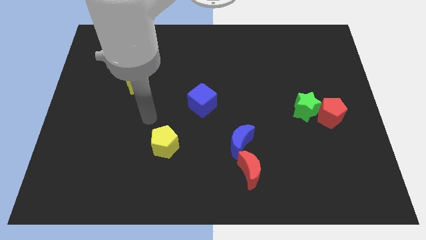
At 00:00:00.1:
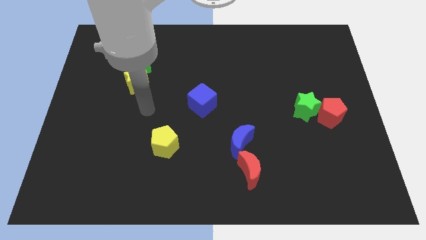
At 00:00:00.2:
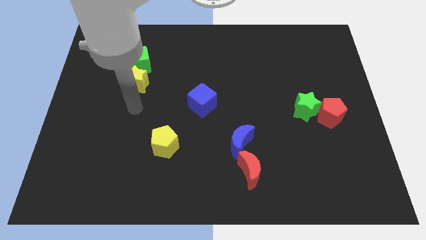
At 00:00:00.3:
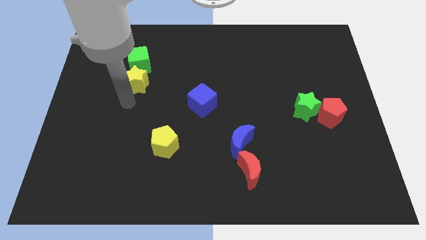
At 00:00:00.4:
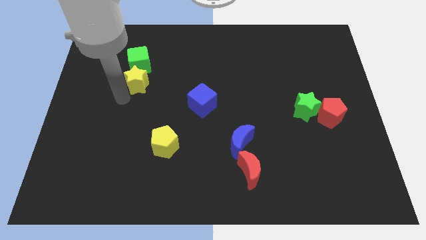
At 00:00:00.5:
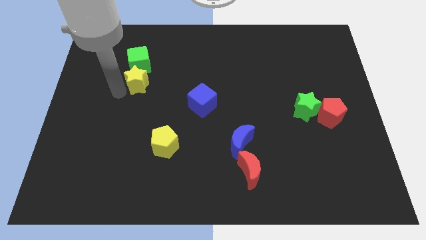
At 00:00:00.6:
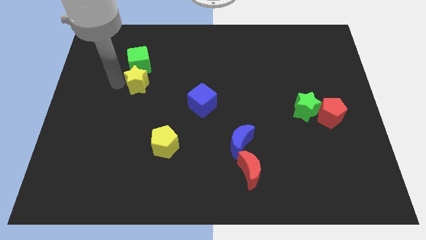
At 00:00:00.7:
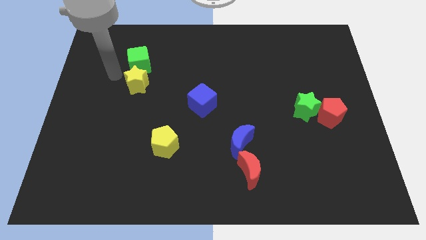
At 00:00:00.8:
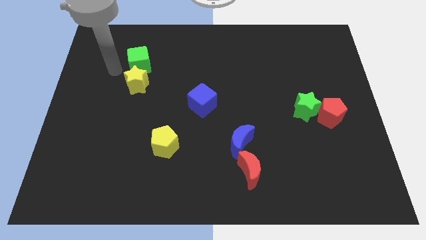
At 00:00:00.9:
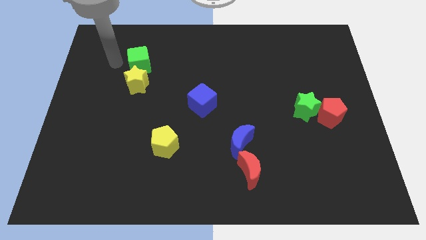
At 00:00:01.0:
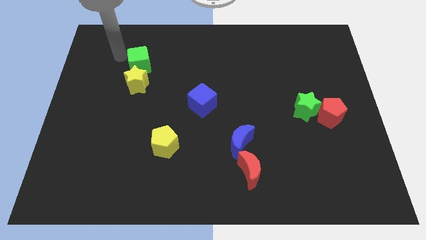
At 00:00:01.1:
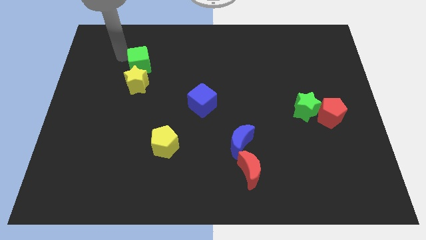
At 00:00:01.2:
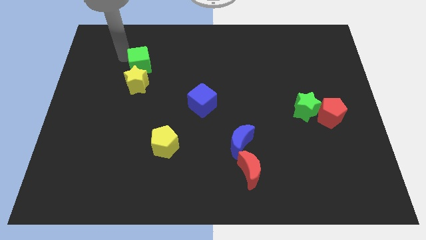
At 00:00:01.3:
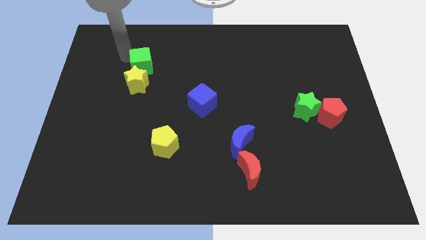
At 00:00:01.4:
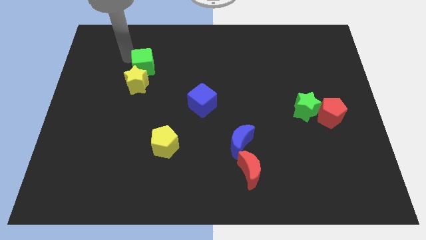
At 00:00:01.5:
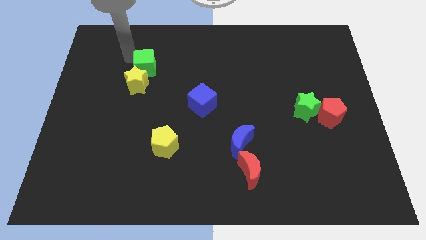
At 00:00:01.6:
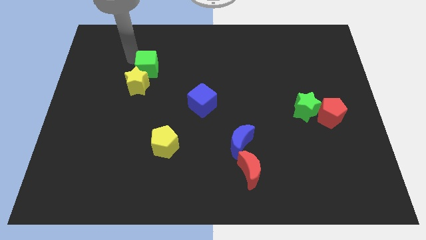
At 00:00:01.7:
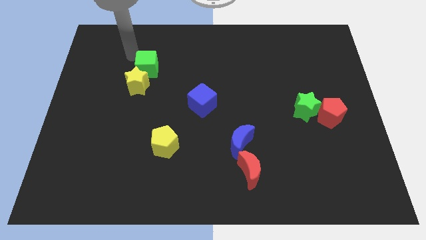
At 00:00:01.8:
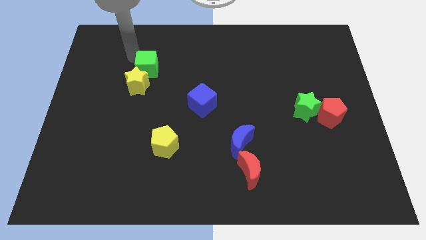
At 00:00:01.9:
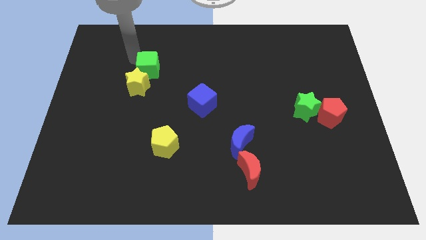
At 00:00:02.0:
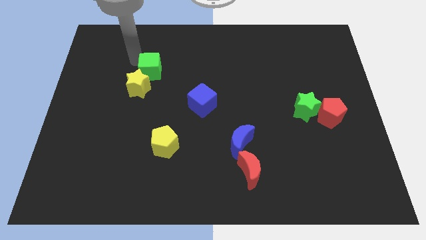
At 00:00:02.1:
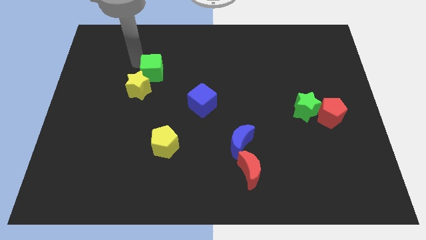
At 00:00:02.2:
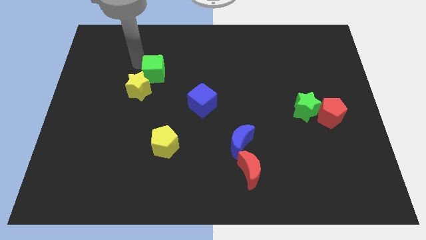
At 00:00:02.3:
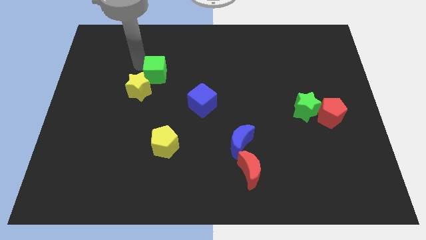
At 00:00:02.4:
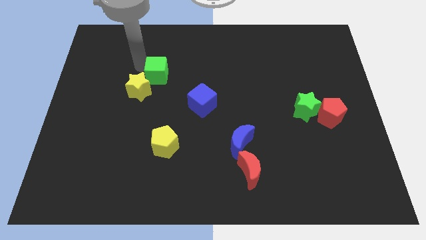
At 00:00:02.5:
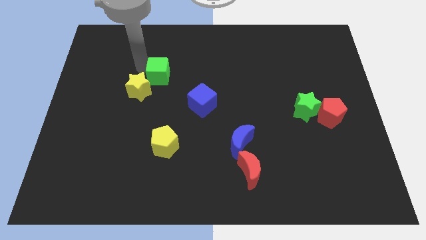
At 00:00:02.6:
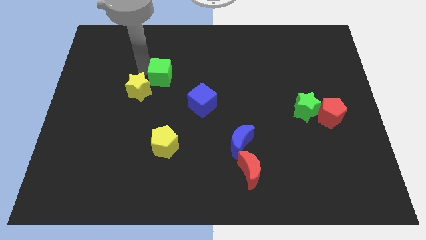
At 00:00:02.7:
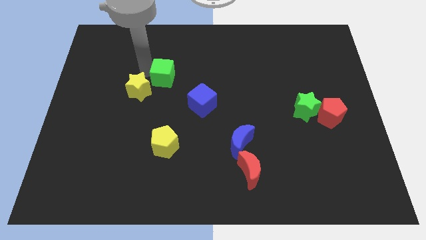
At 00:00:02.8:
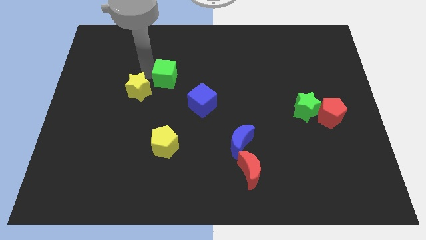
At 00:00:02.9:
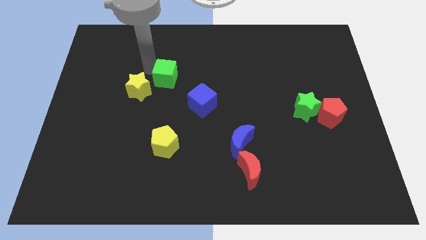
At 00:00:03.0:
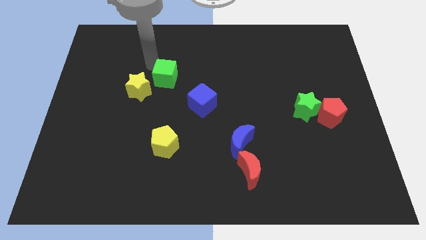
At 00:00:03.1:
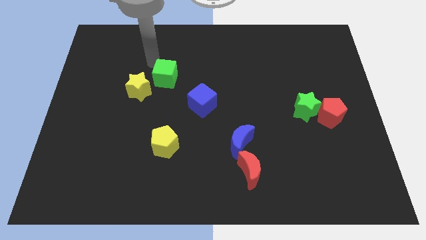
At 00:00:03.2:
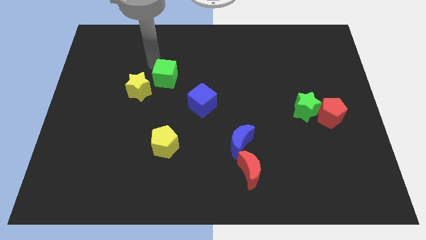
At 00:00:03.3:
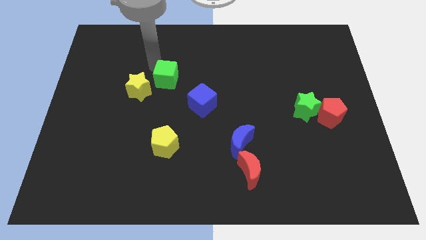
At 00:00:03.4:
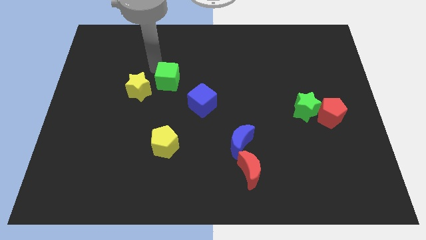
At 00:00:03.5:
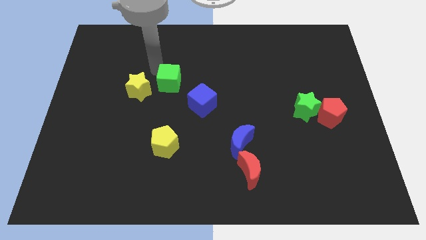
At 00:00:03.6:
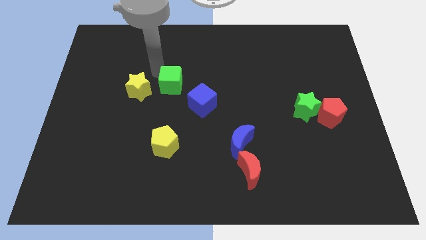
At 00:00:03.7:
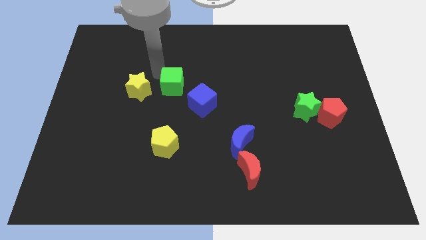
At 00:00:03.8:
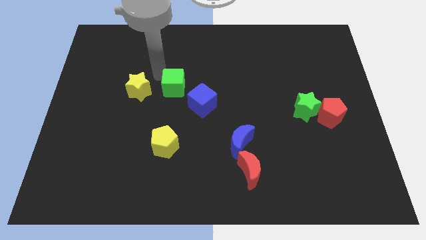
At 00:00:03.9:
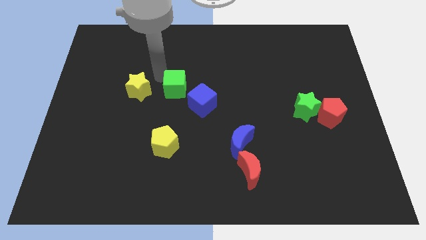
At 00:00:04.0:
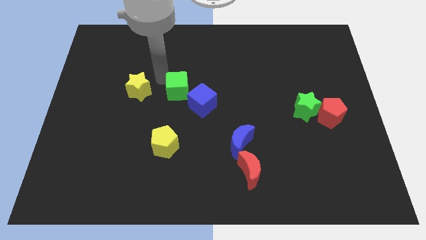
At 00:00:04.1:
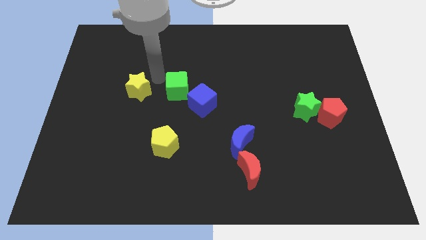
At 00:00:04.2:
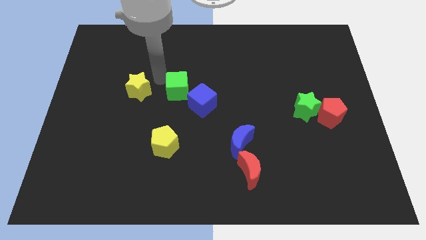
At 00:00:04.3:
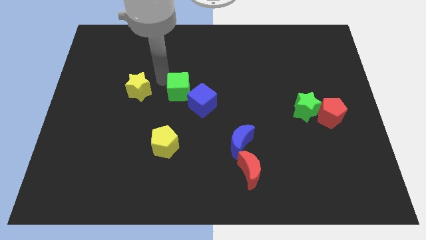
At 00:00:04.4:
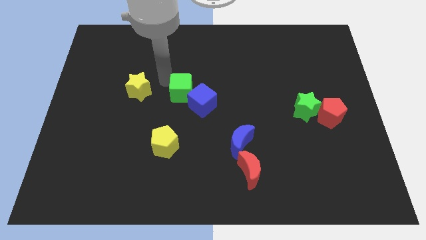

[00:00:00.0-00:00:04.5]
put the green cube close to the blue cube

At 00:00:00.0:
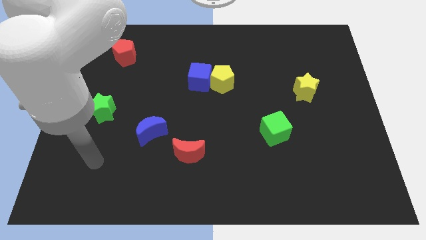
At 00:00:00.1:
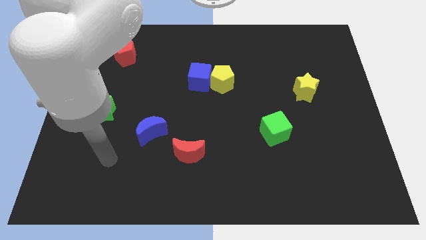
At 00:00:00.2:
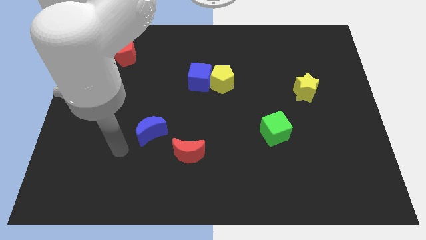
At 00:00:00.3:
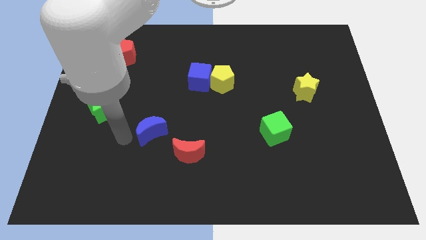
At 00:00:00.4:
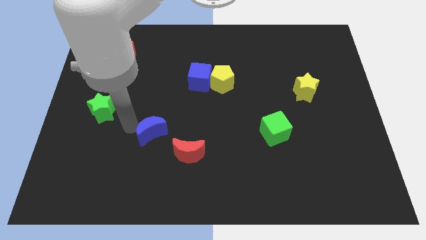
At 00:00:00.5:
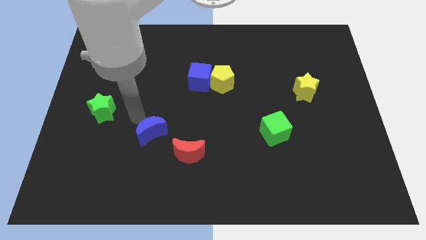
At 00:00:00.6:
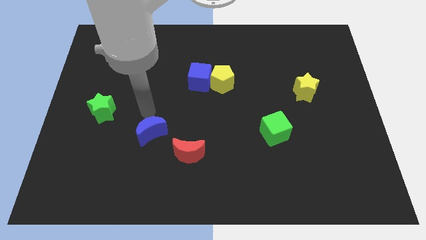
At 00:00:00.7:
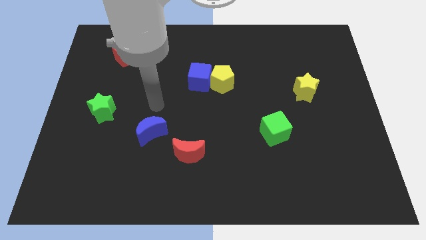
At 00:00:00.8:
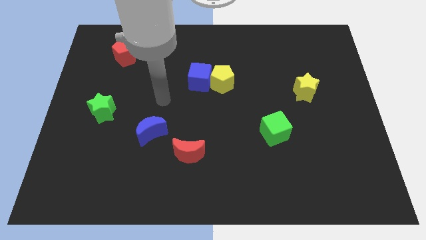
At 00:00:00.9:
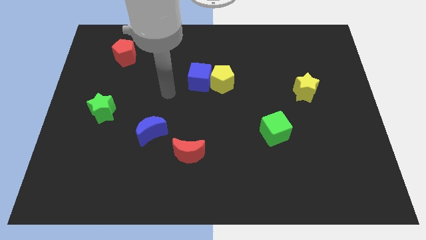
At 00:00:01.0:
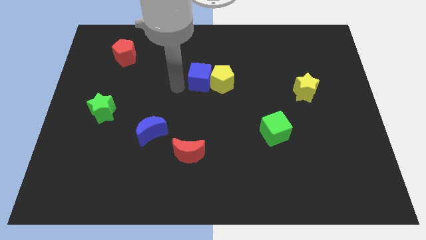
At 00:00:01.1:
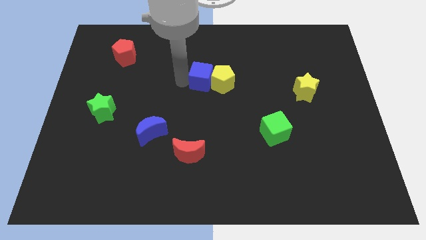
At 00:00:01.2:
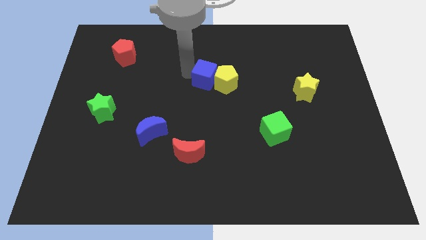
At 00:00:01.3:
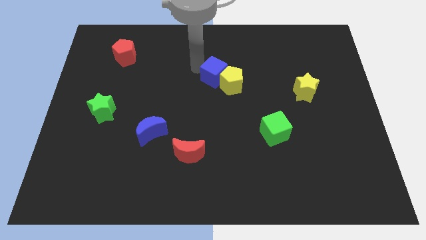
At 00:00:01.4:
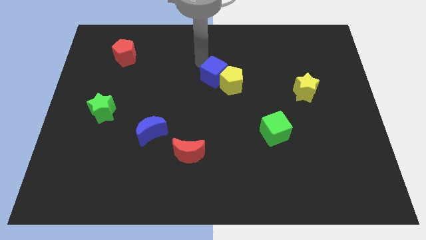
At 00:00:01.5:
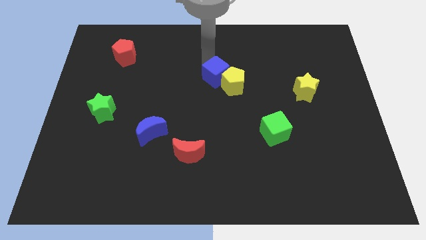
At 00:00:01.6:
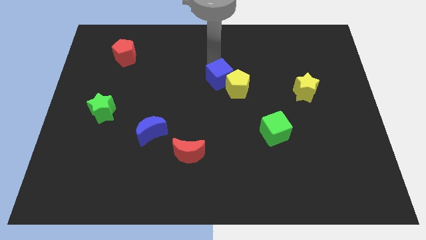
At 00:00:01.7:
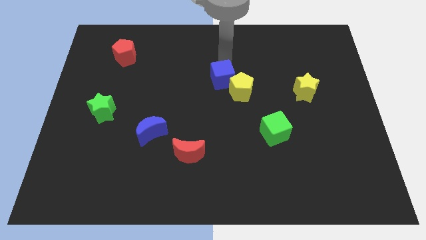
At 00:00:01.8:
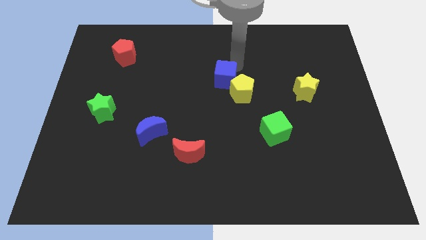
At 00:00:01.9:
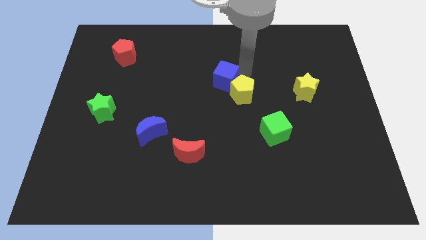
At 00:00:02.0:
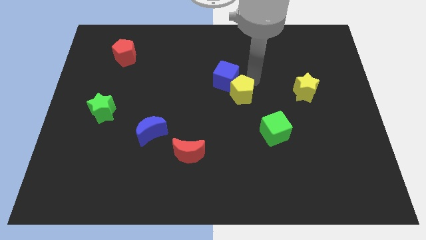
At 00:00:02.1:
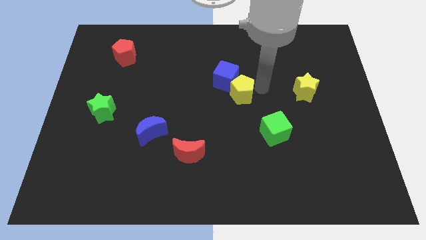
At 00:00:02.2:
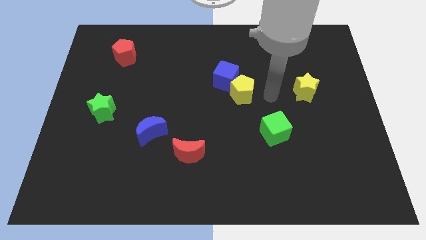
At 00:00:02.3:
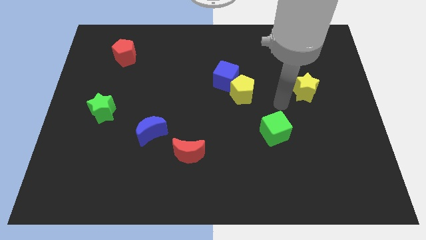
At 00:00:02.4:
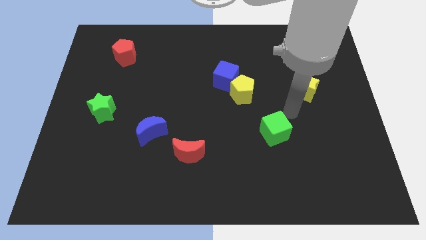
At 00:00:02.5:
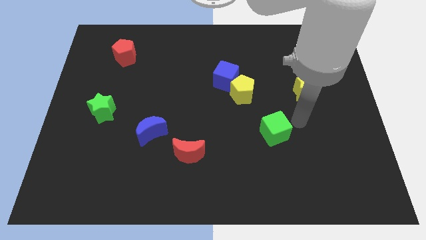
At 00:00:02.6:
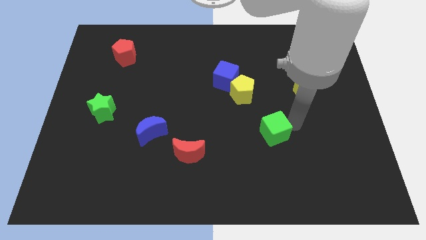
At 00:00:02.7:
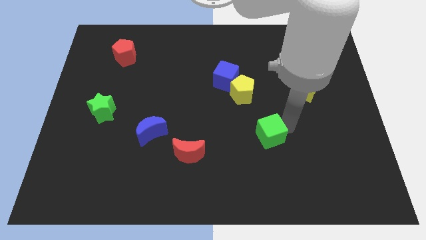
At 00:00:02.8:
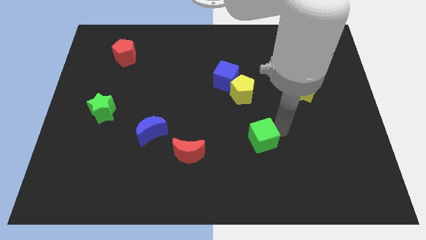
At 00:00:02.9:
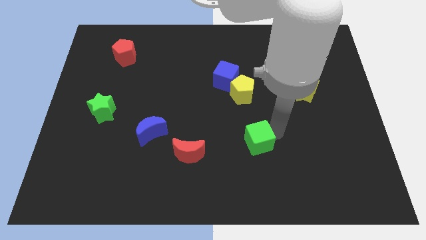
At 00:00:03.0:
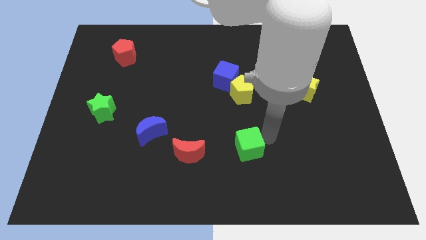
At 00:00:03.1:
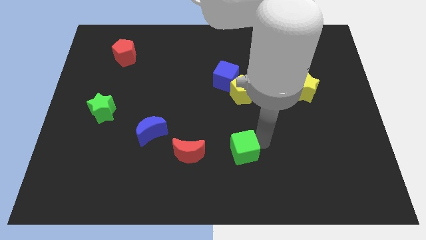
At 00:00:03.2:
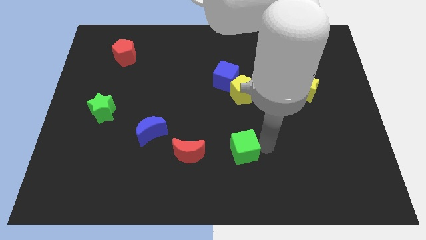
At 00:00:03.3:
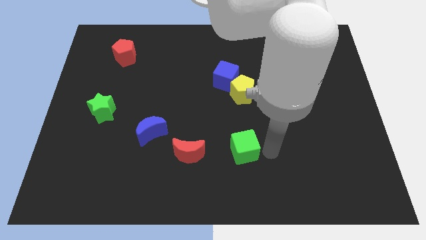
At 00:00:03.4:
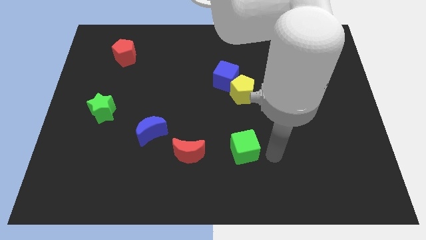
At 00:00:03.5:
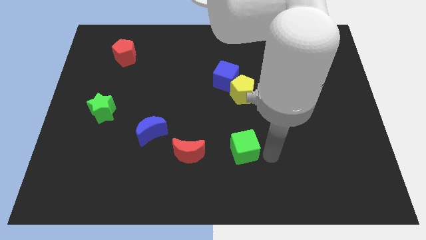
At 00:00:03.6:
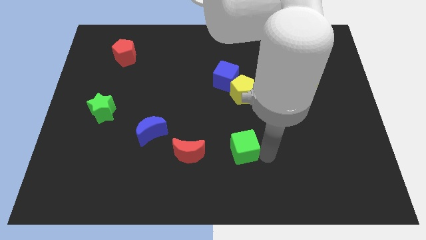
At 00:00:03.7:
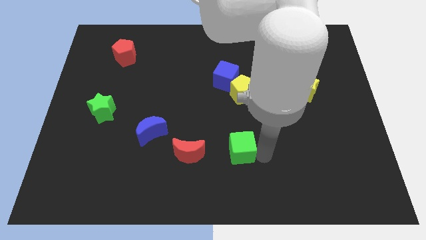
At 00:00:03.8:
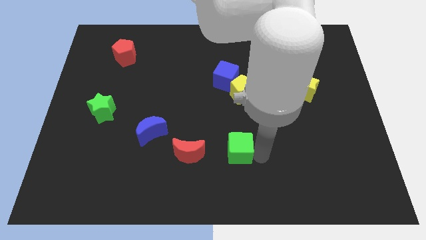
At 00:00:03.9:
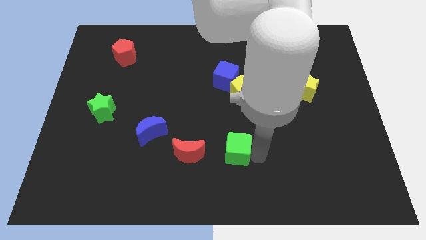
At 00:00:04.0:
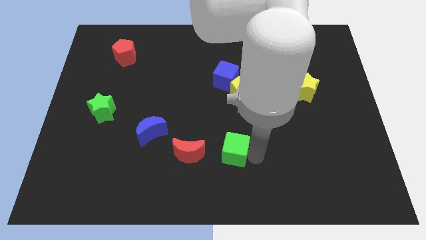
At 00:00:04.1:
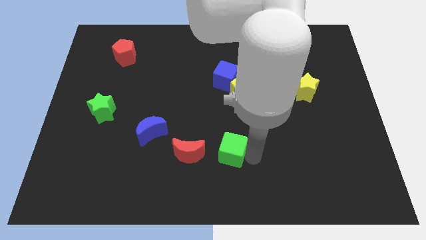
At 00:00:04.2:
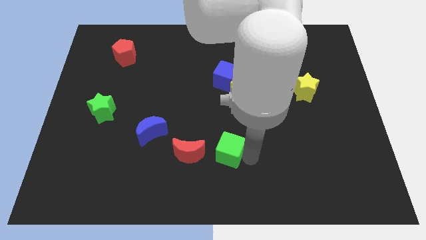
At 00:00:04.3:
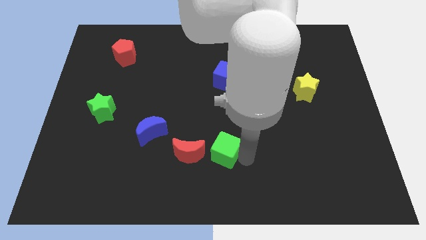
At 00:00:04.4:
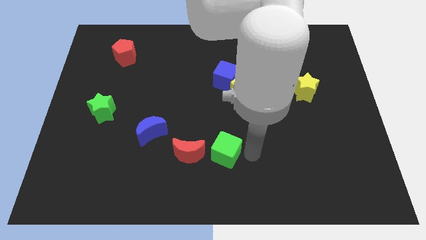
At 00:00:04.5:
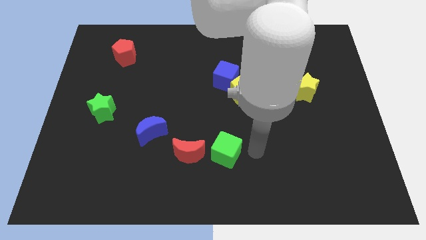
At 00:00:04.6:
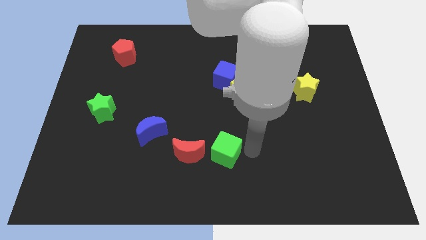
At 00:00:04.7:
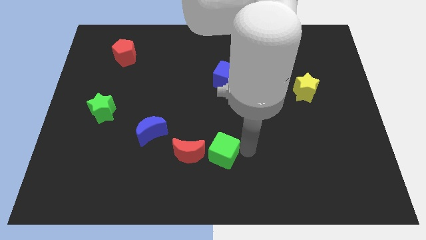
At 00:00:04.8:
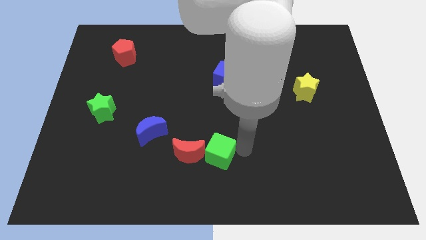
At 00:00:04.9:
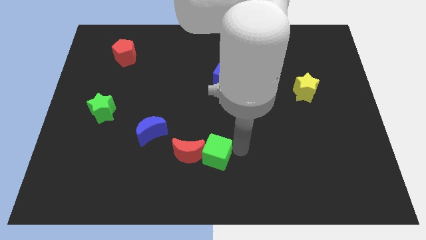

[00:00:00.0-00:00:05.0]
push the green cube close to the red moon
